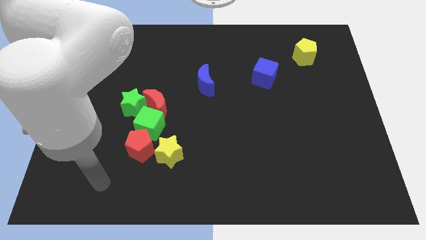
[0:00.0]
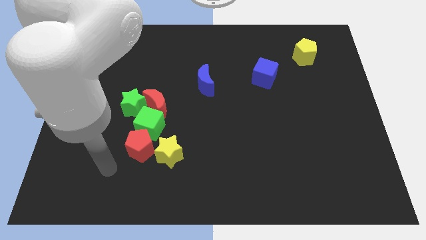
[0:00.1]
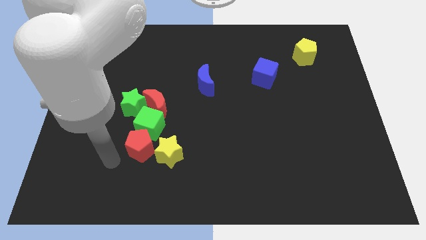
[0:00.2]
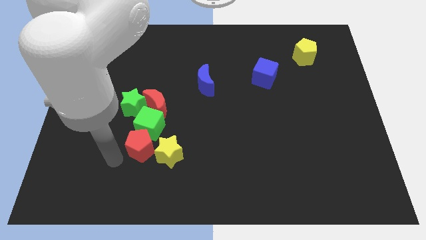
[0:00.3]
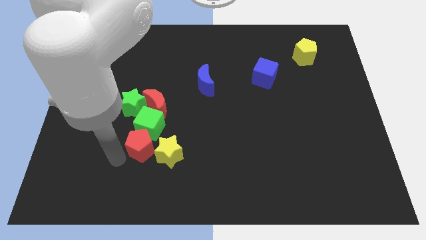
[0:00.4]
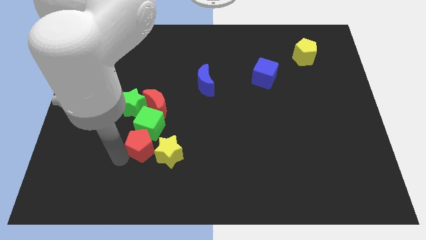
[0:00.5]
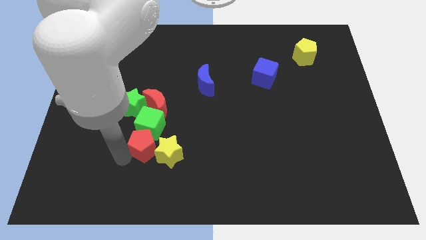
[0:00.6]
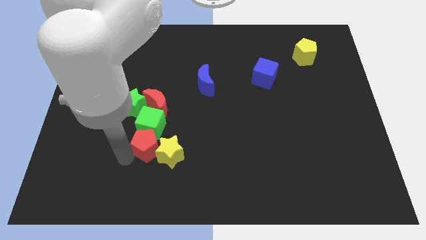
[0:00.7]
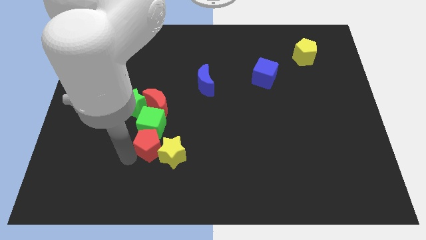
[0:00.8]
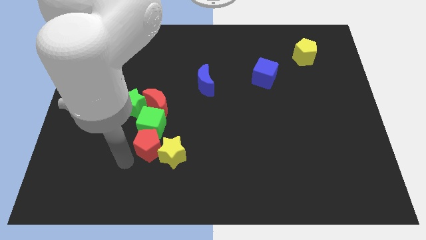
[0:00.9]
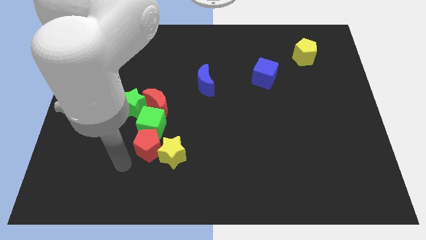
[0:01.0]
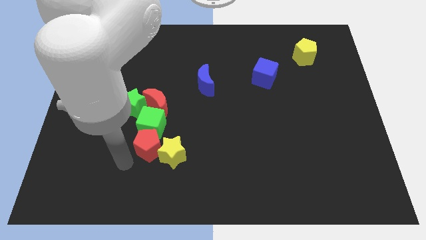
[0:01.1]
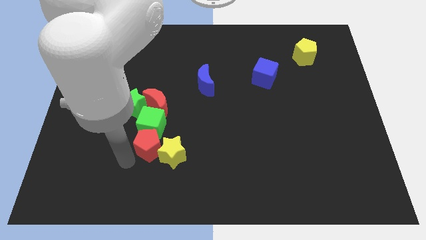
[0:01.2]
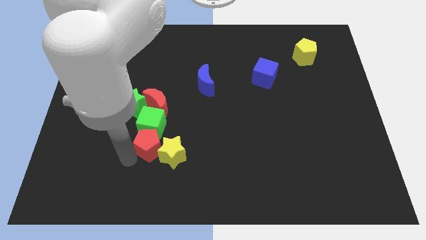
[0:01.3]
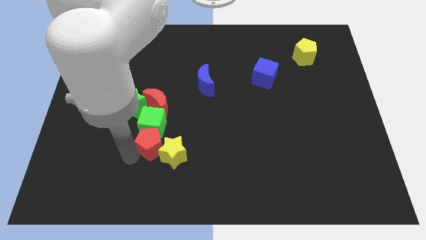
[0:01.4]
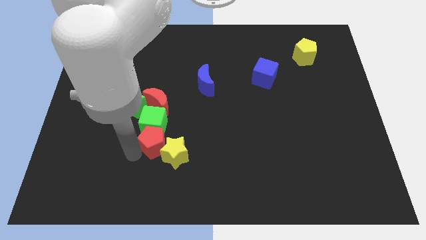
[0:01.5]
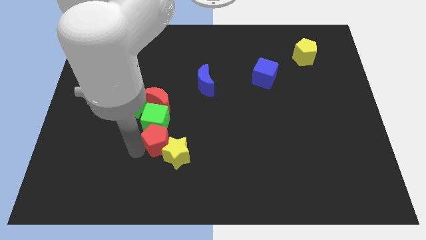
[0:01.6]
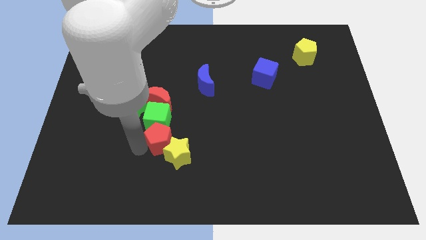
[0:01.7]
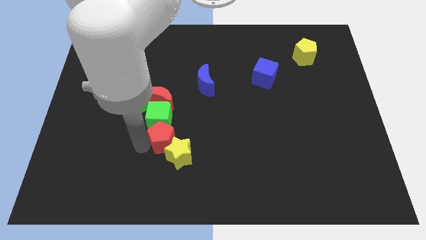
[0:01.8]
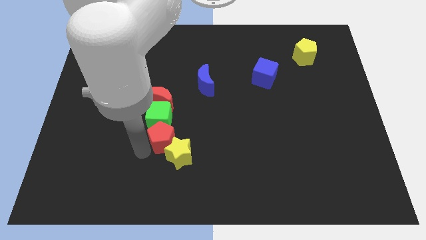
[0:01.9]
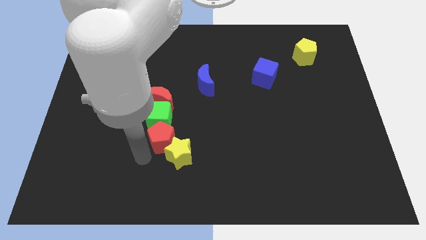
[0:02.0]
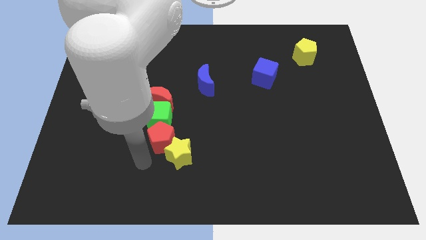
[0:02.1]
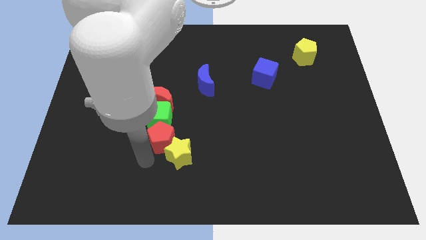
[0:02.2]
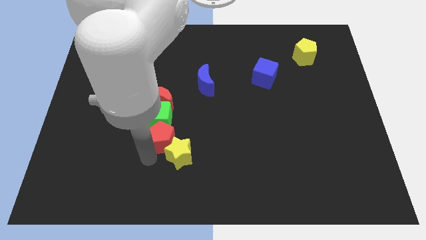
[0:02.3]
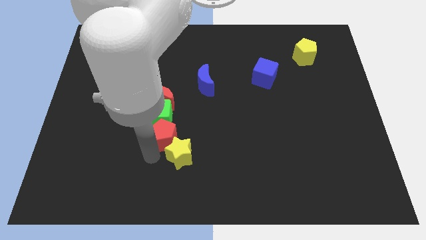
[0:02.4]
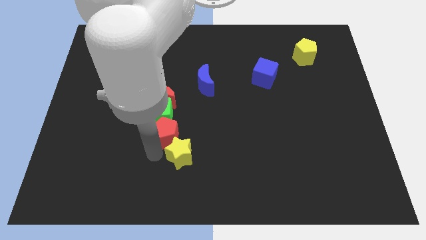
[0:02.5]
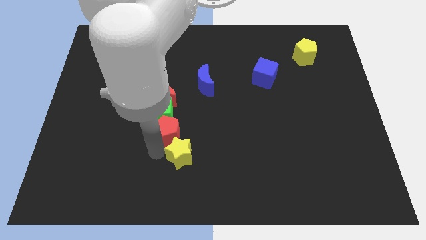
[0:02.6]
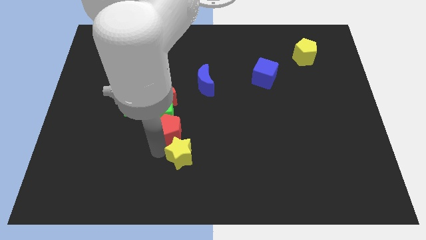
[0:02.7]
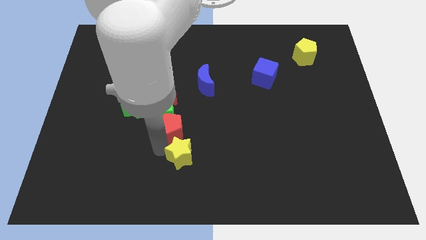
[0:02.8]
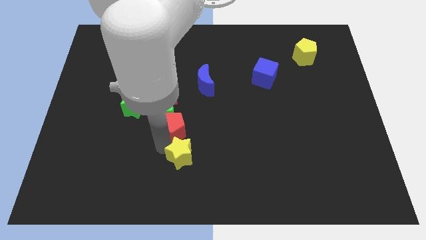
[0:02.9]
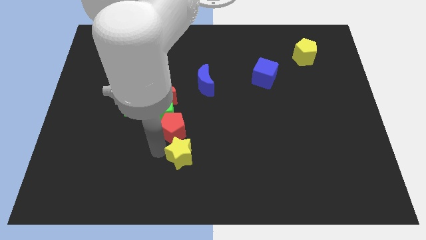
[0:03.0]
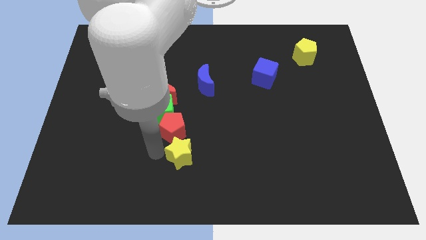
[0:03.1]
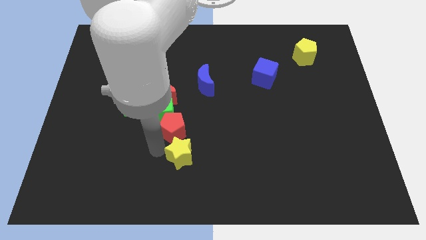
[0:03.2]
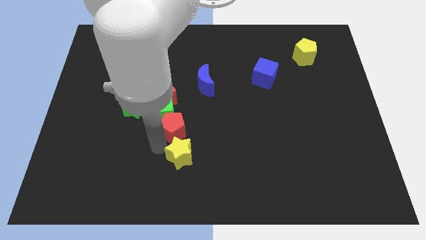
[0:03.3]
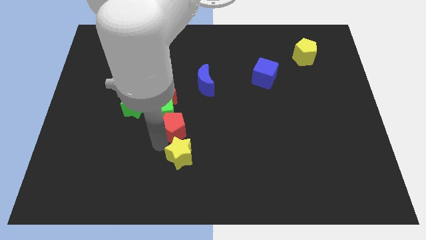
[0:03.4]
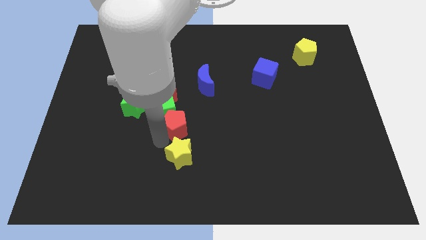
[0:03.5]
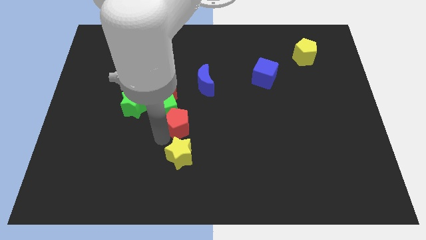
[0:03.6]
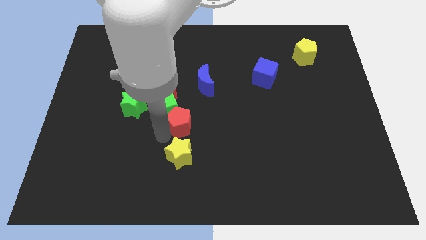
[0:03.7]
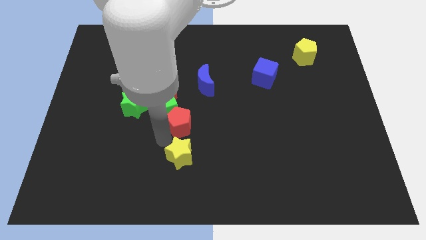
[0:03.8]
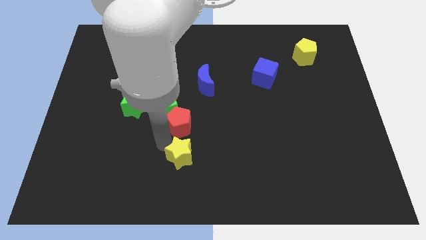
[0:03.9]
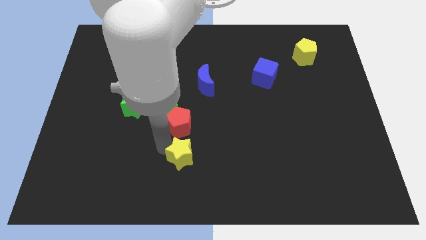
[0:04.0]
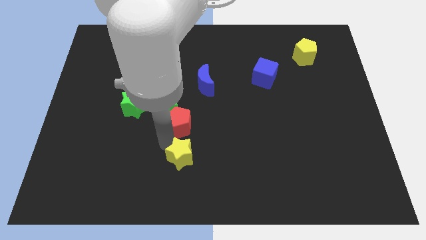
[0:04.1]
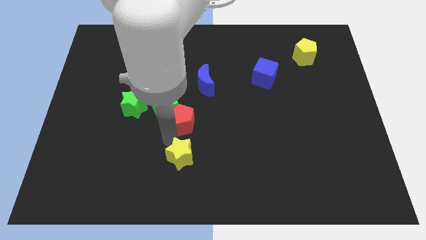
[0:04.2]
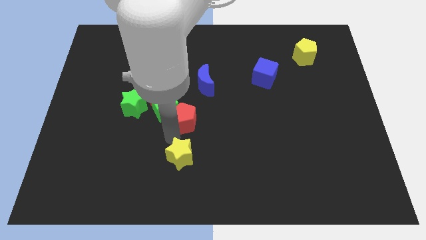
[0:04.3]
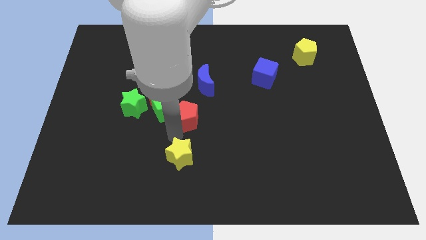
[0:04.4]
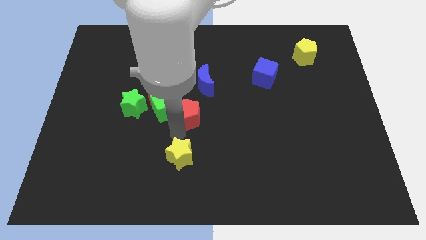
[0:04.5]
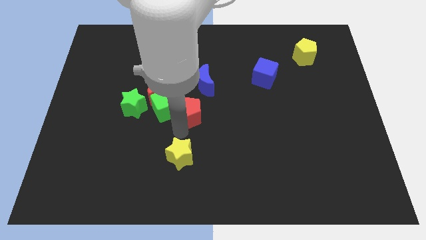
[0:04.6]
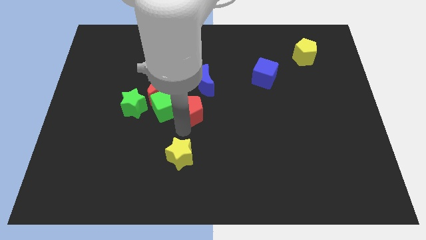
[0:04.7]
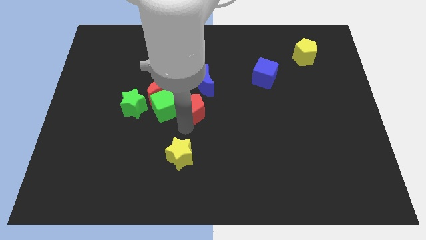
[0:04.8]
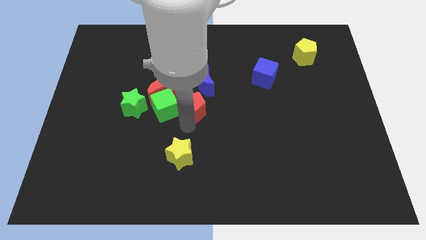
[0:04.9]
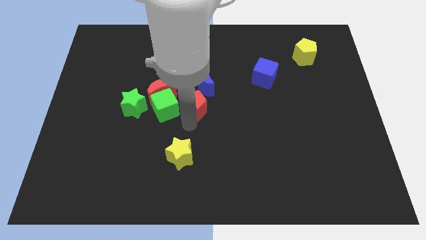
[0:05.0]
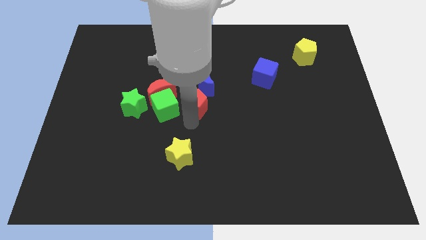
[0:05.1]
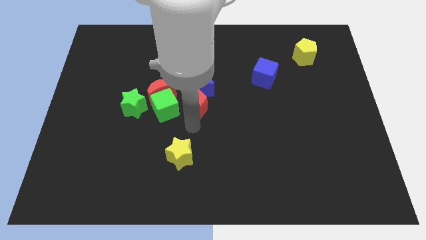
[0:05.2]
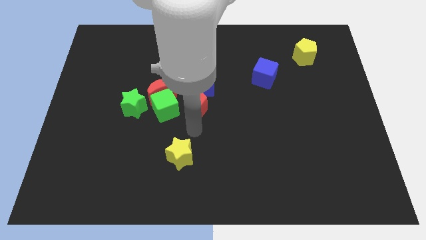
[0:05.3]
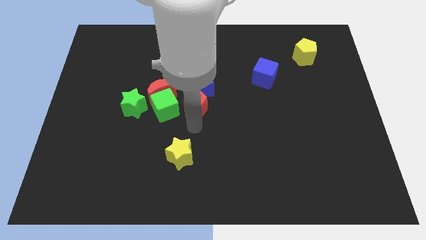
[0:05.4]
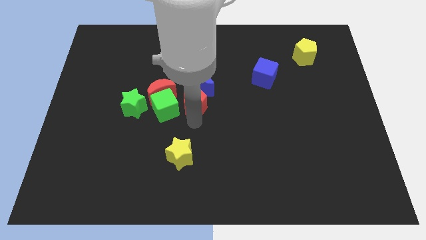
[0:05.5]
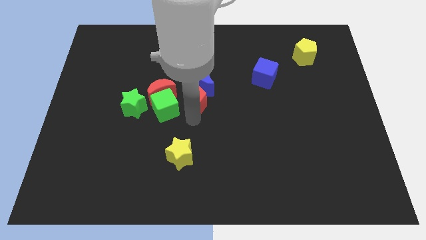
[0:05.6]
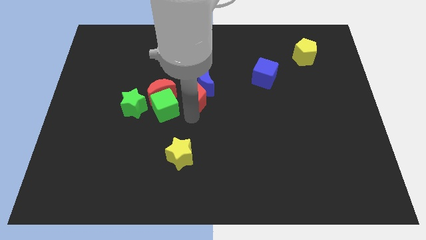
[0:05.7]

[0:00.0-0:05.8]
slide the red pentagon towards the blue moon
